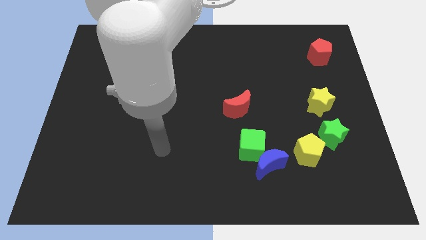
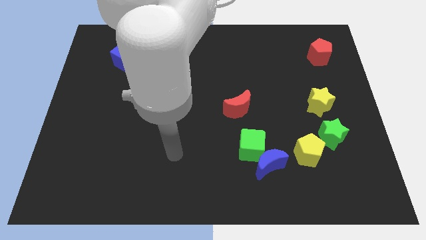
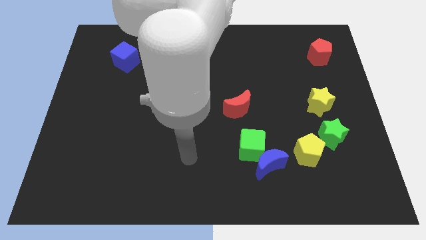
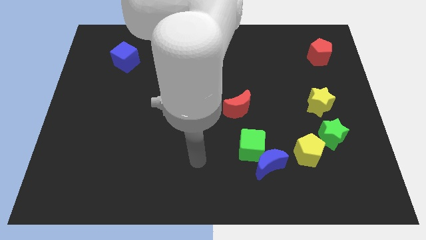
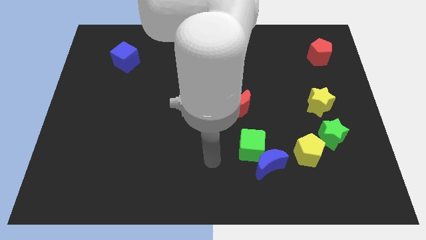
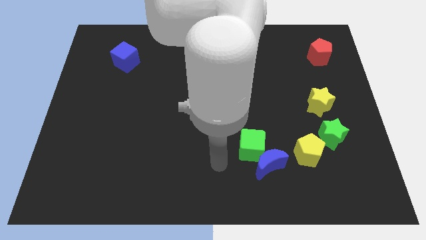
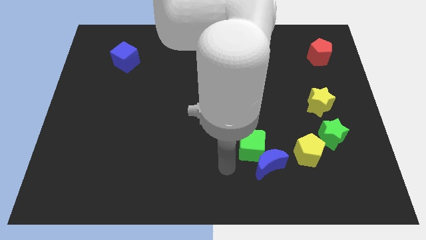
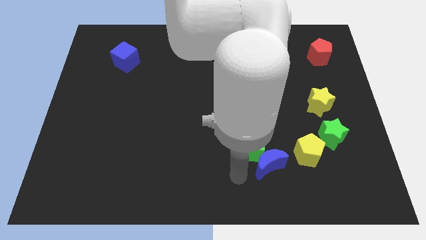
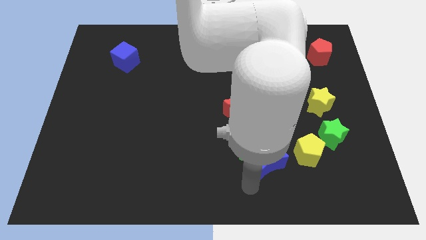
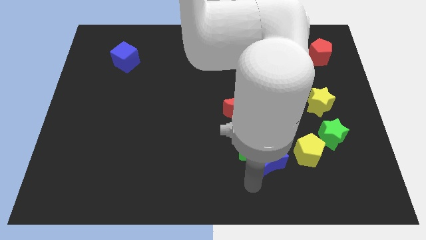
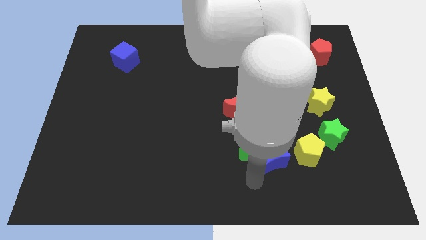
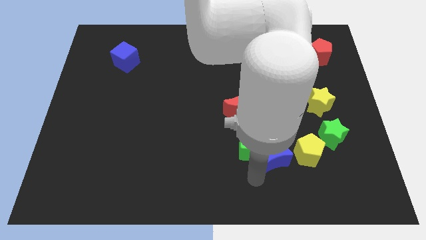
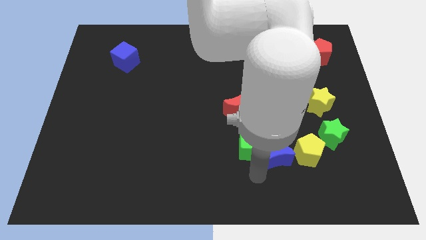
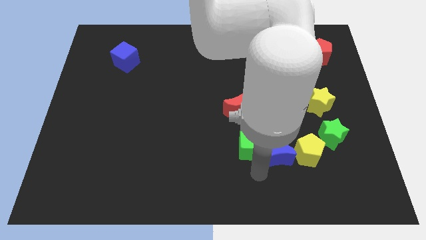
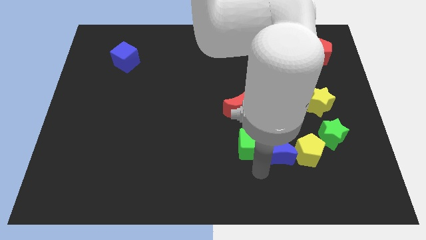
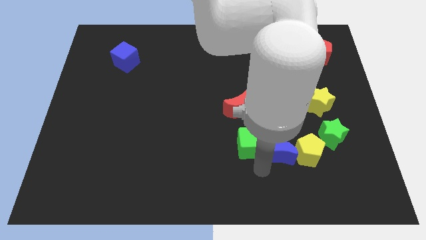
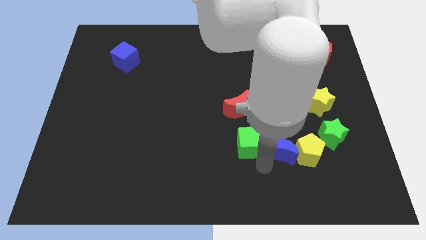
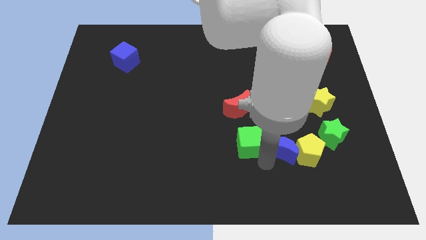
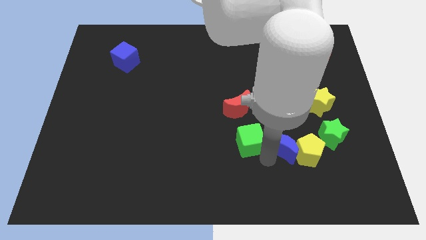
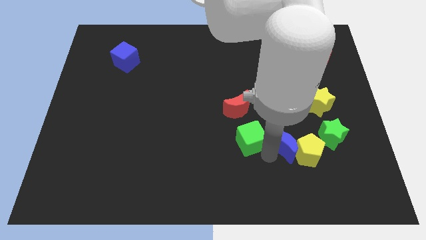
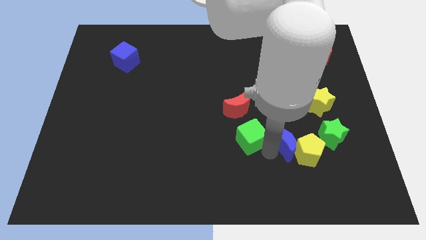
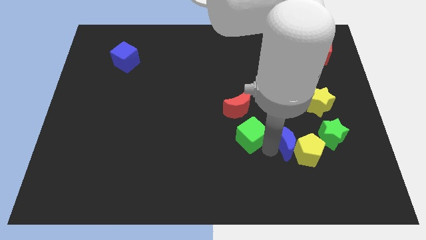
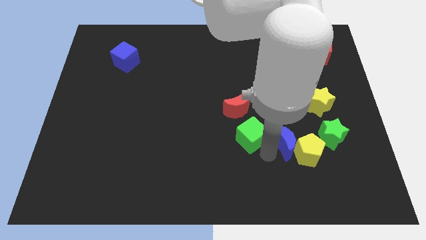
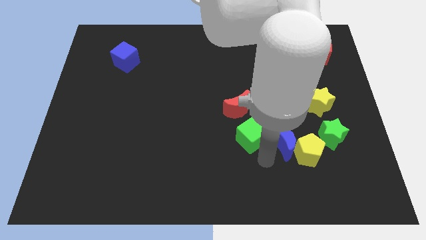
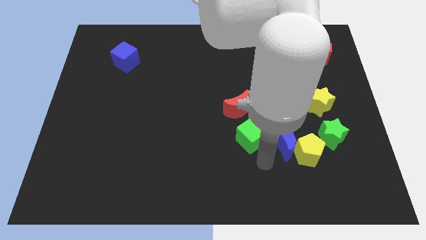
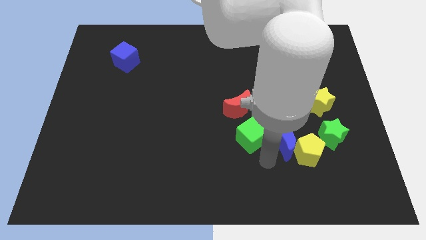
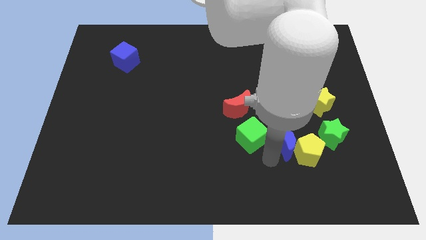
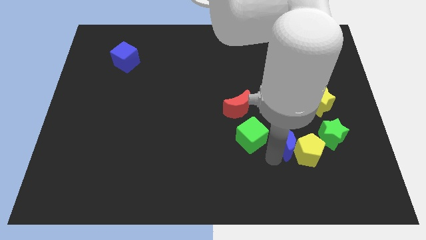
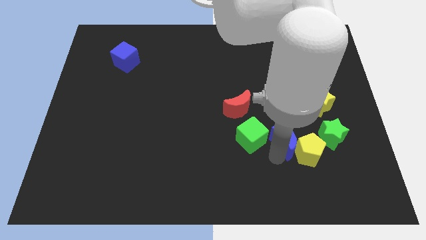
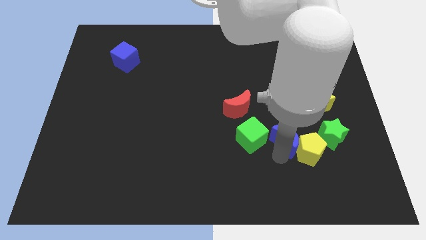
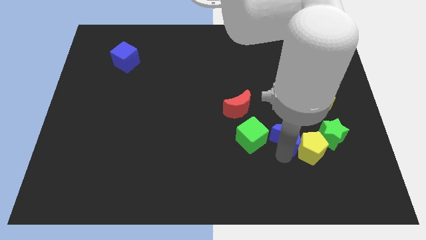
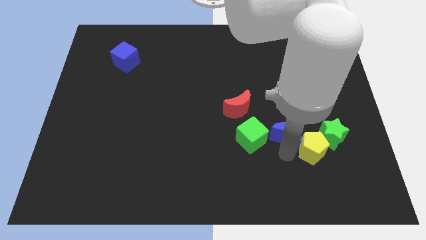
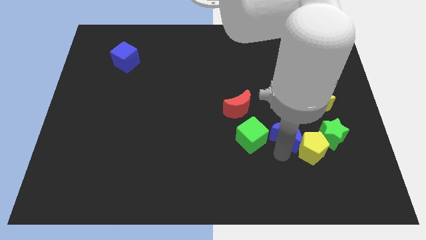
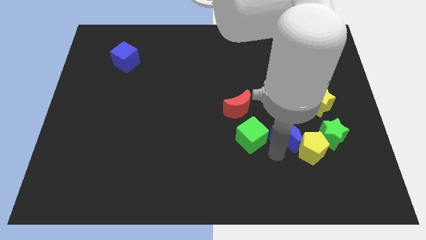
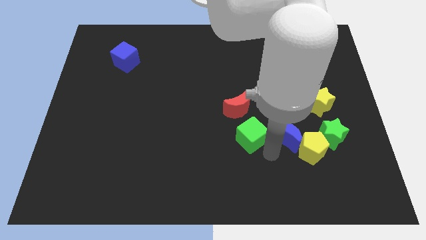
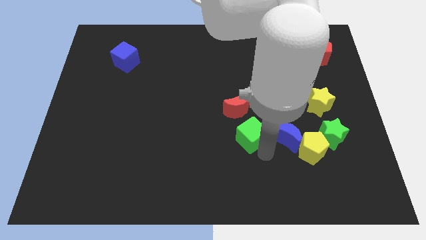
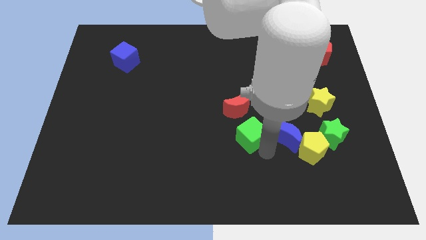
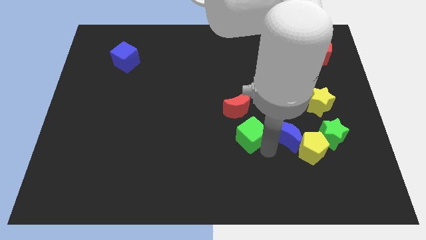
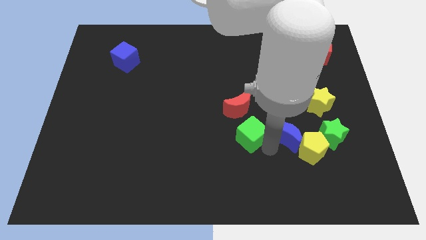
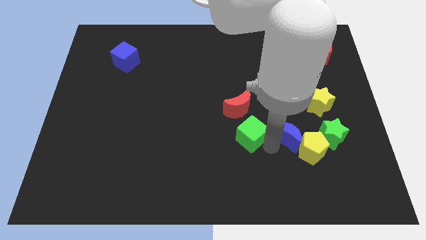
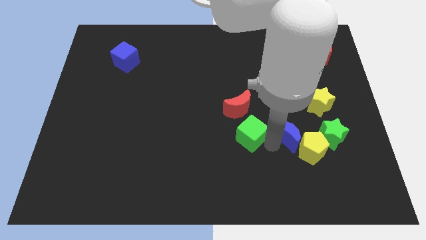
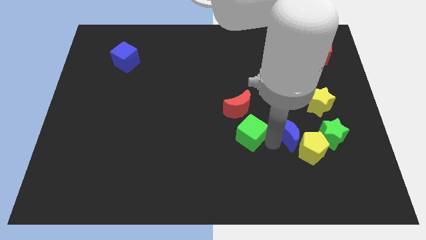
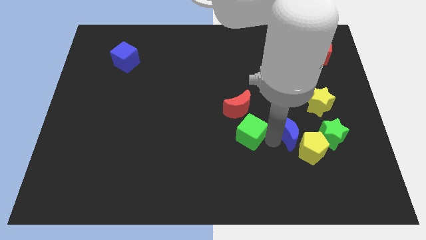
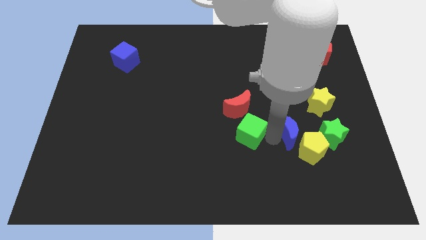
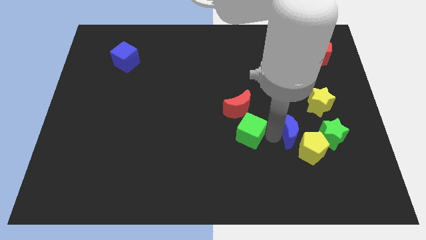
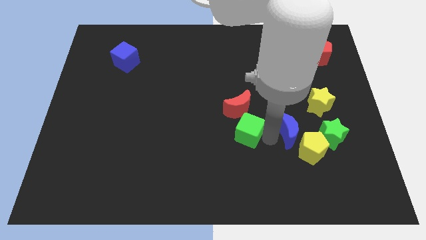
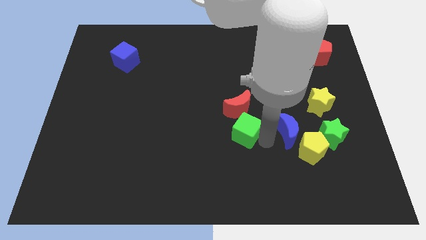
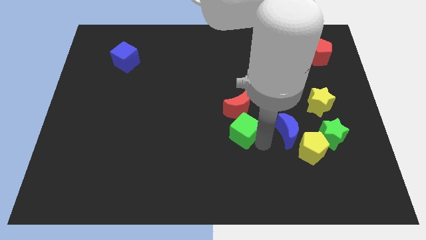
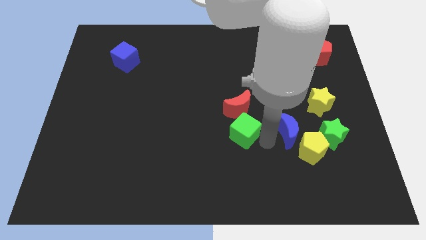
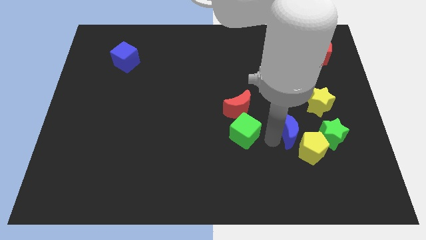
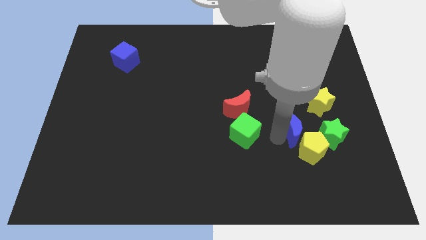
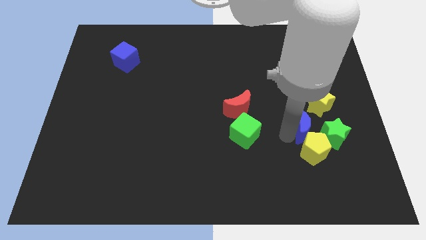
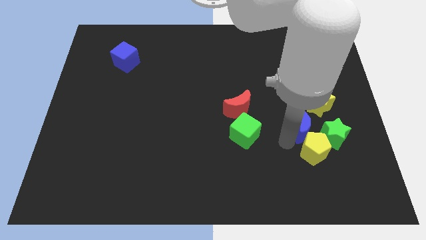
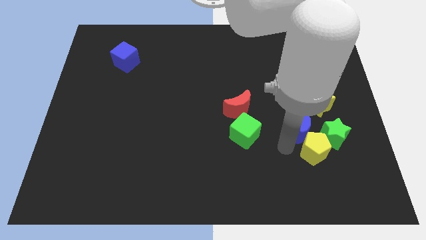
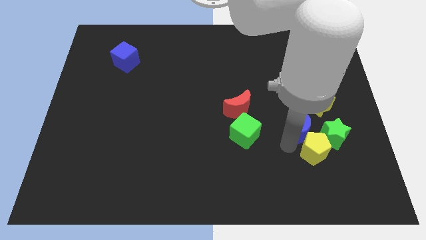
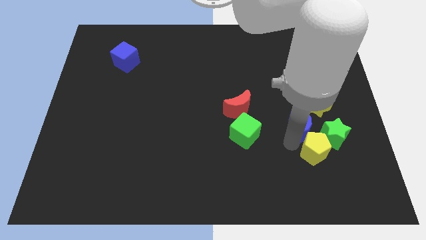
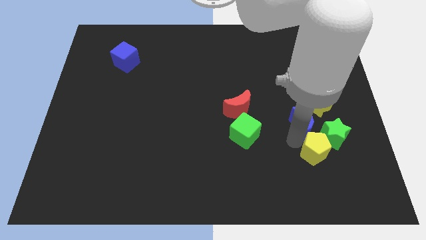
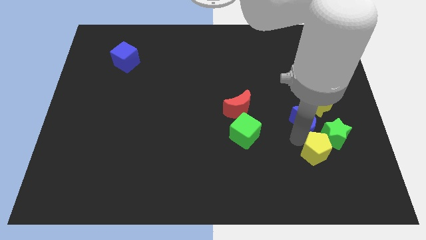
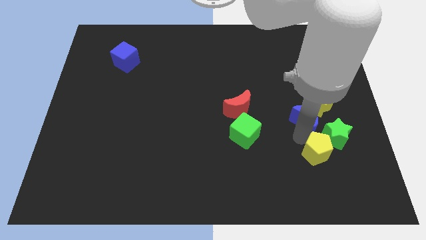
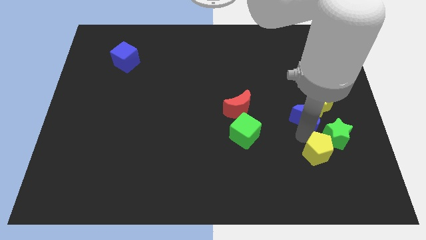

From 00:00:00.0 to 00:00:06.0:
slide the blue moon towards the yellow star

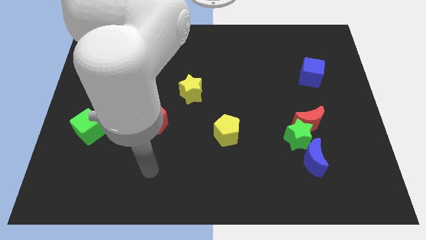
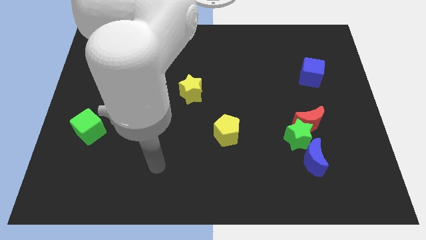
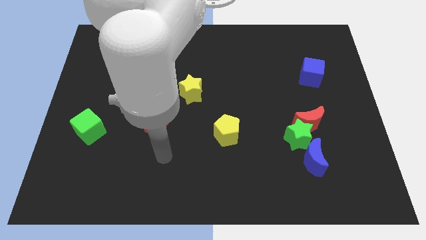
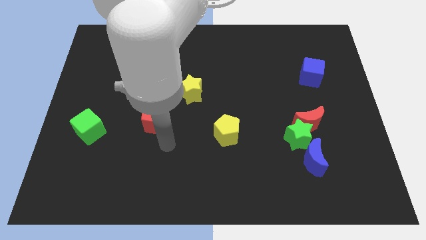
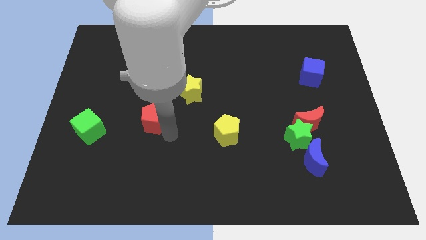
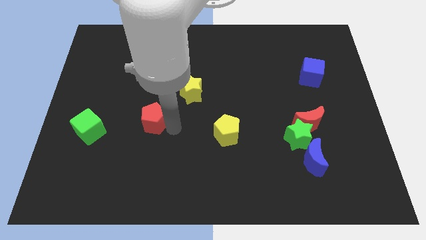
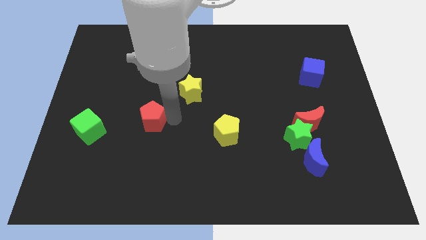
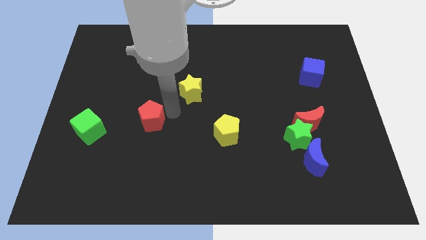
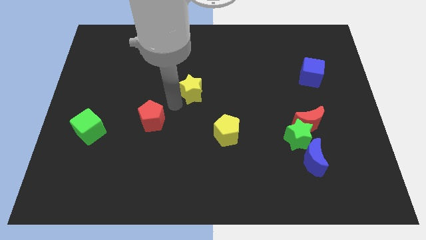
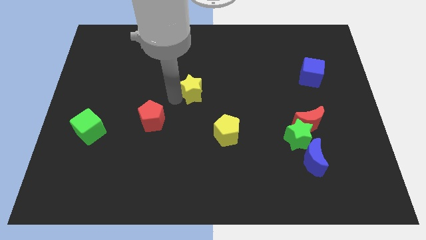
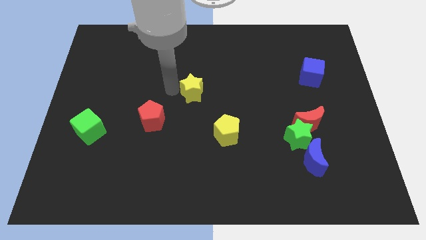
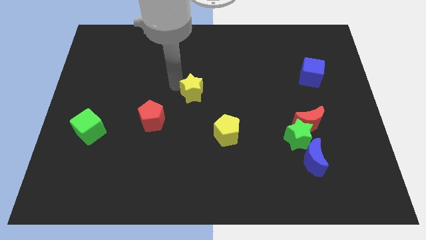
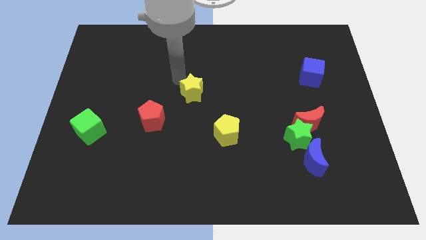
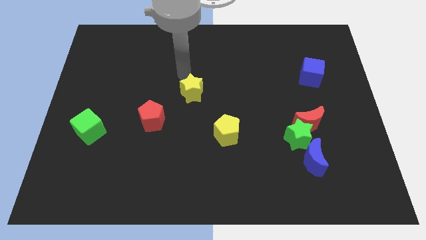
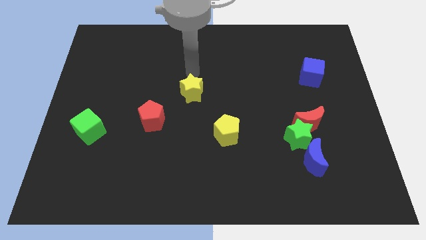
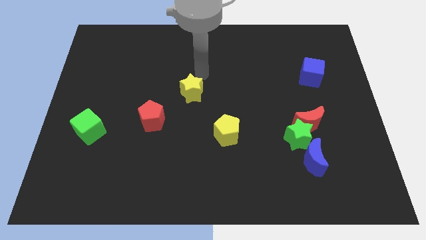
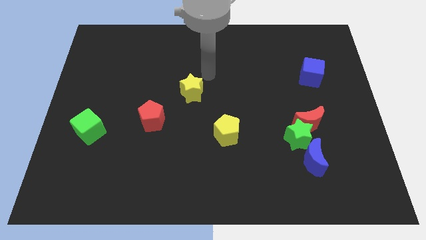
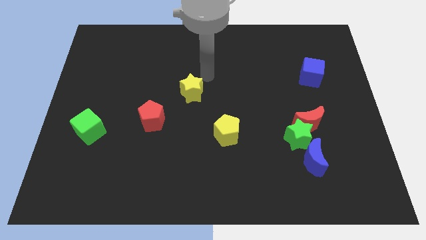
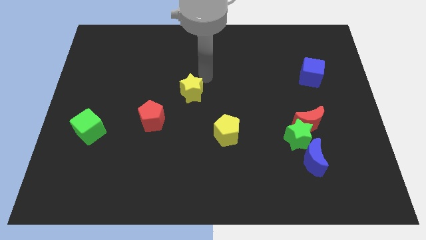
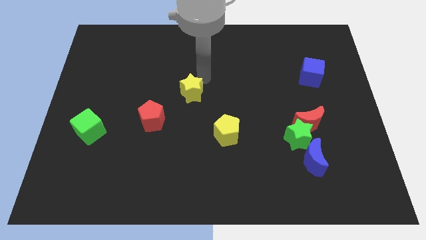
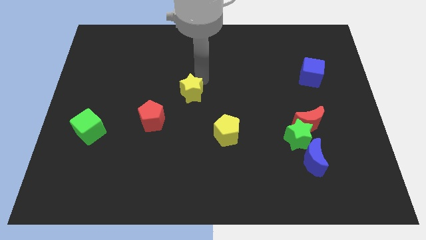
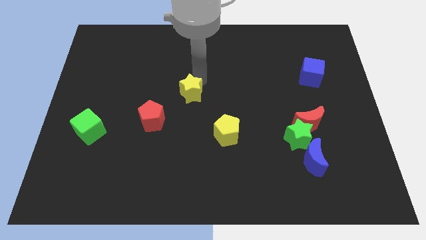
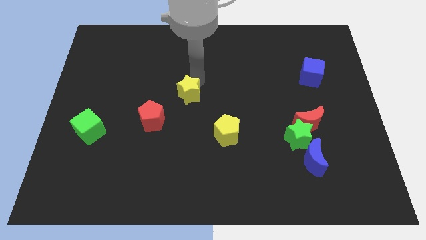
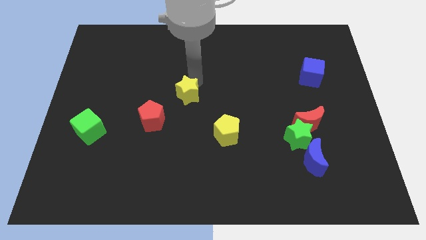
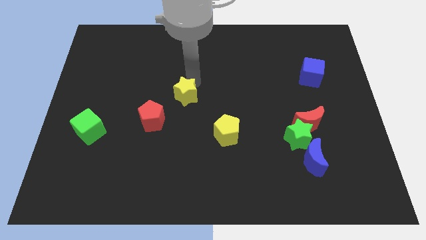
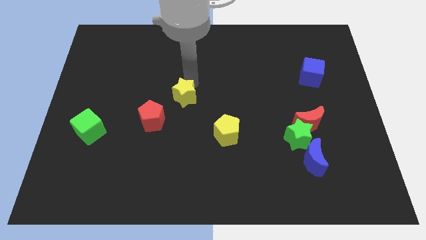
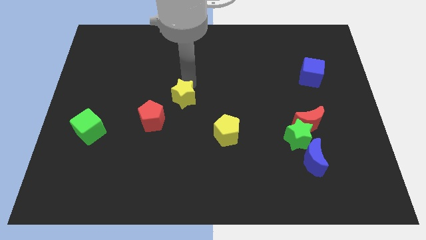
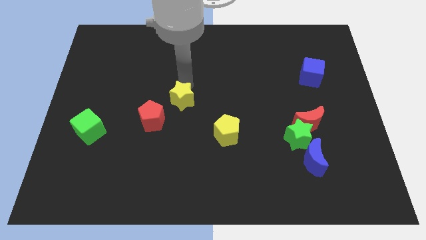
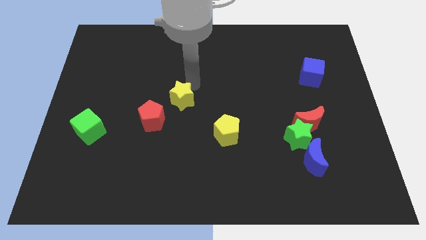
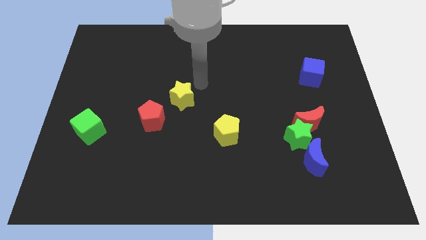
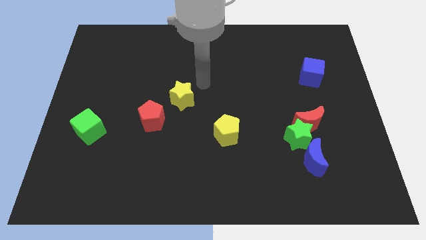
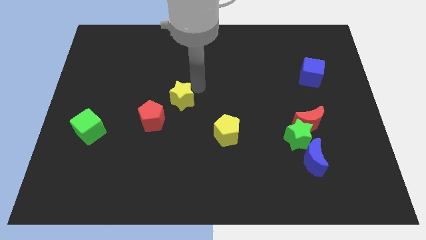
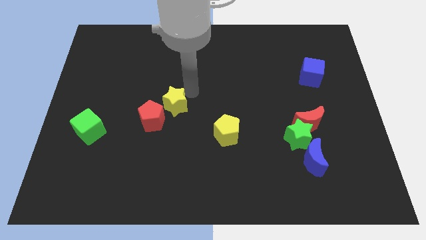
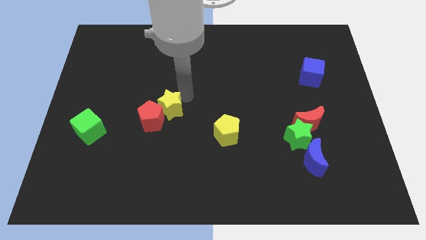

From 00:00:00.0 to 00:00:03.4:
slide the yellow star close to the red pentagon
